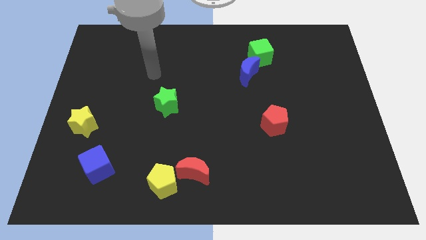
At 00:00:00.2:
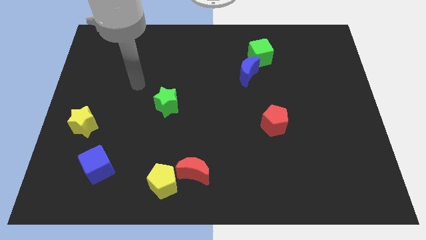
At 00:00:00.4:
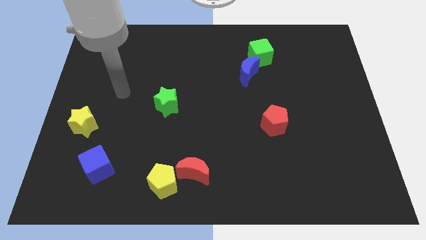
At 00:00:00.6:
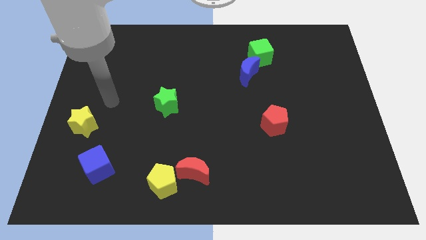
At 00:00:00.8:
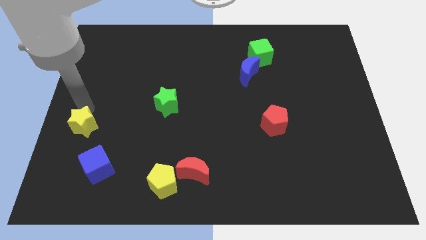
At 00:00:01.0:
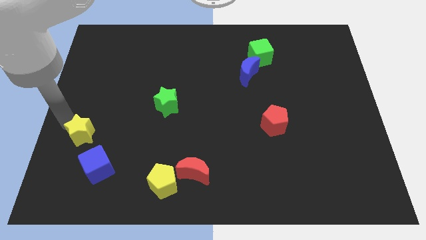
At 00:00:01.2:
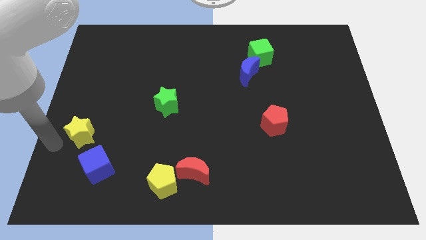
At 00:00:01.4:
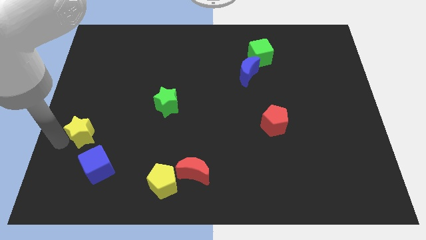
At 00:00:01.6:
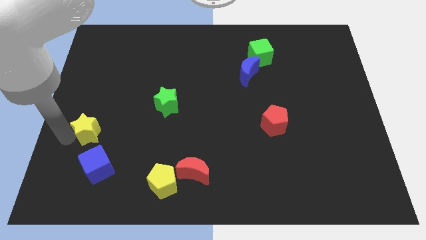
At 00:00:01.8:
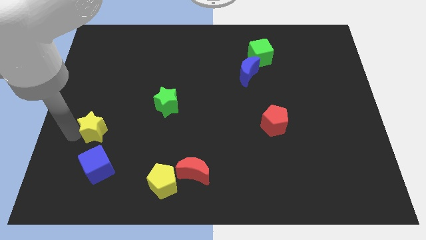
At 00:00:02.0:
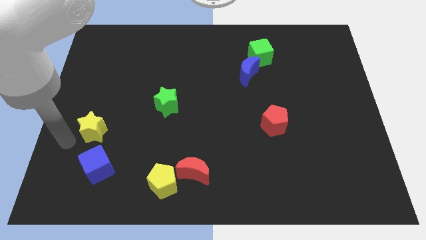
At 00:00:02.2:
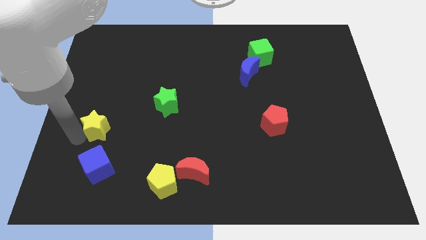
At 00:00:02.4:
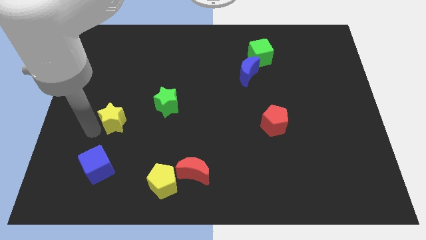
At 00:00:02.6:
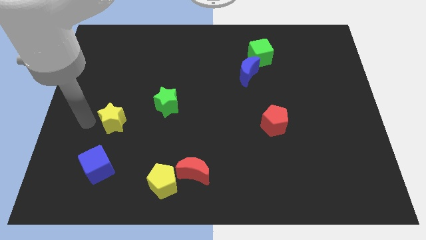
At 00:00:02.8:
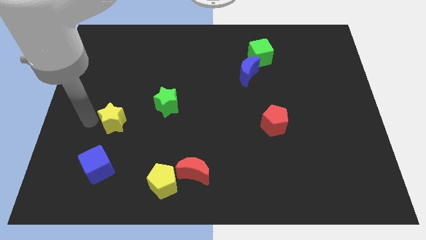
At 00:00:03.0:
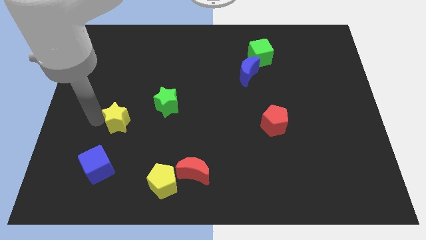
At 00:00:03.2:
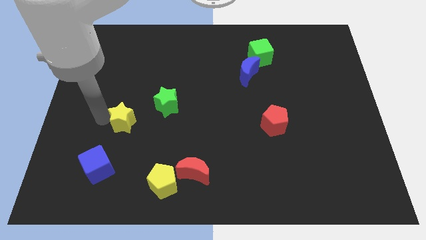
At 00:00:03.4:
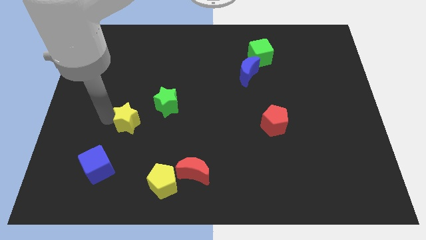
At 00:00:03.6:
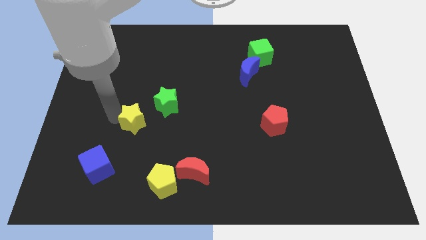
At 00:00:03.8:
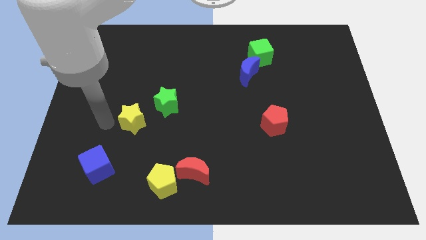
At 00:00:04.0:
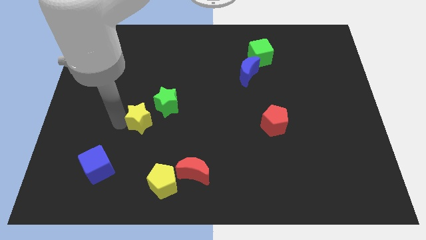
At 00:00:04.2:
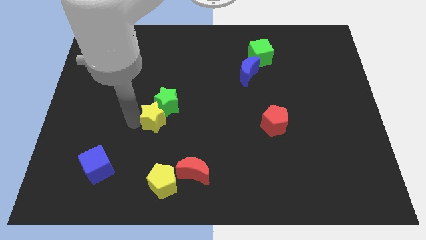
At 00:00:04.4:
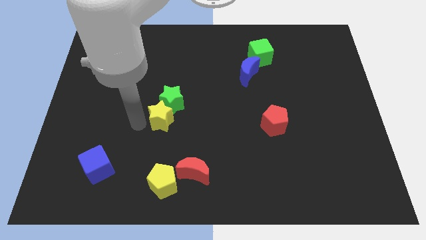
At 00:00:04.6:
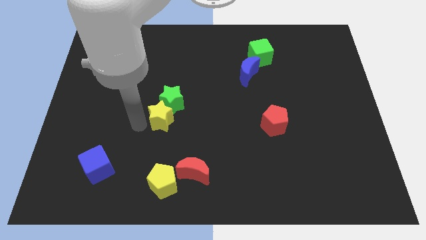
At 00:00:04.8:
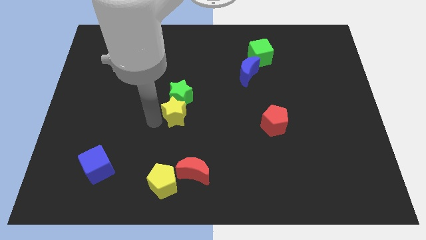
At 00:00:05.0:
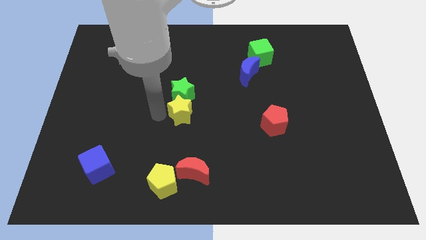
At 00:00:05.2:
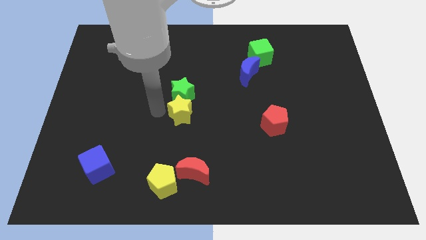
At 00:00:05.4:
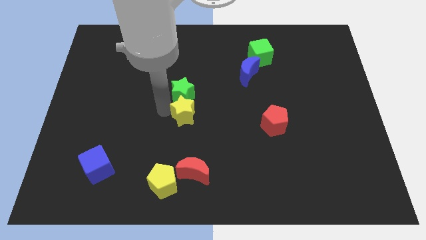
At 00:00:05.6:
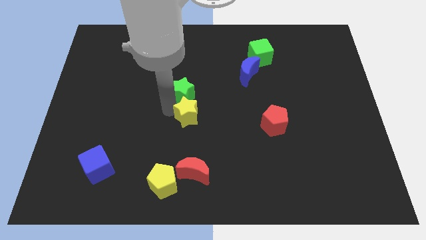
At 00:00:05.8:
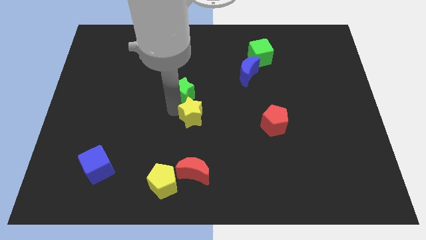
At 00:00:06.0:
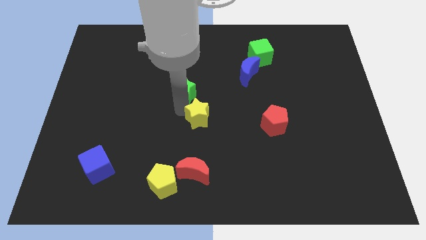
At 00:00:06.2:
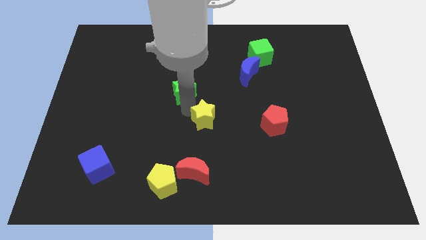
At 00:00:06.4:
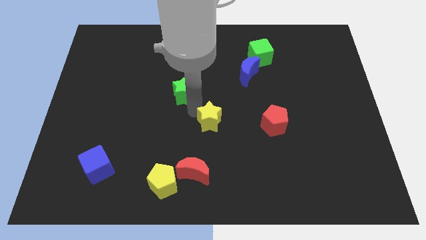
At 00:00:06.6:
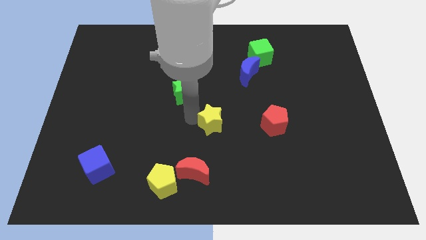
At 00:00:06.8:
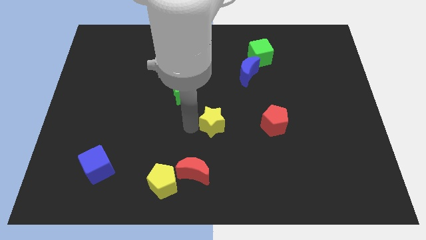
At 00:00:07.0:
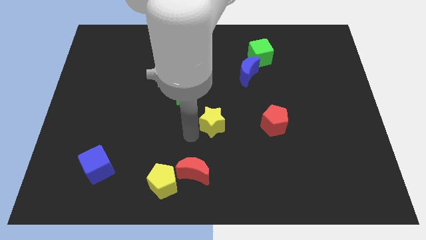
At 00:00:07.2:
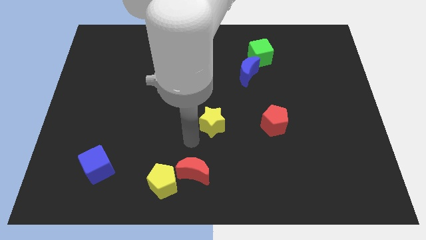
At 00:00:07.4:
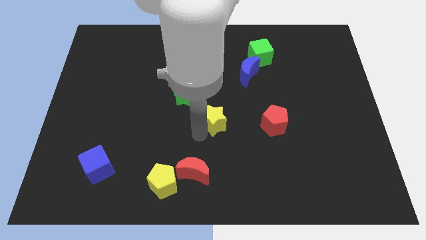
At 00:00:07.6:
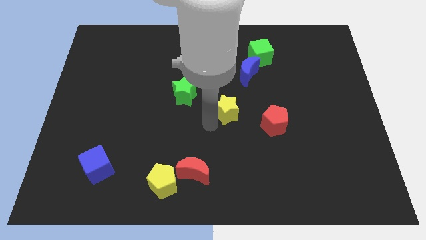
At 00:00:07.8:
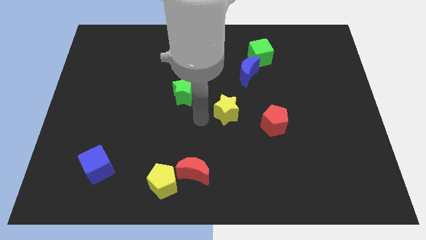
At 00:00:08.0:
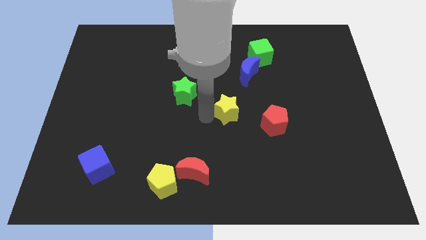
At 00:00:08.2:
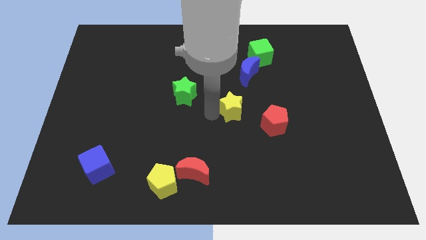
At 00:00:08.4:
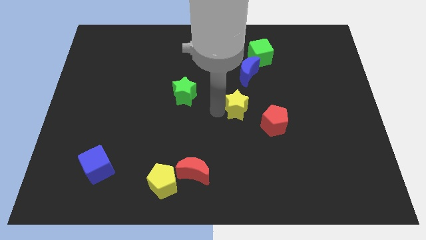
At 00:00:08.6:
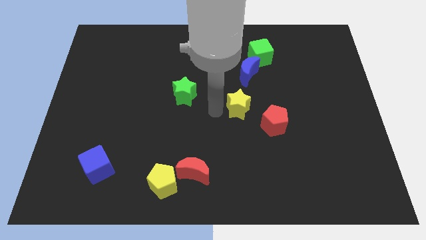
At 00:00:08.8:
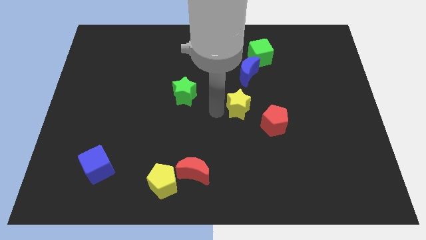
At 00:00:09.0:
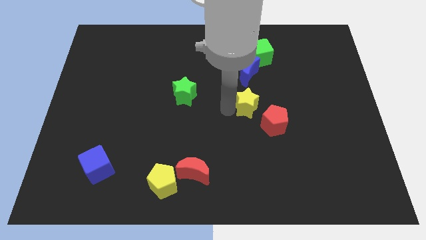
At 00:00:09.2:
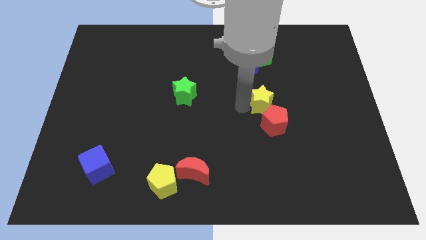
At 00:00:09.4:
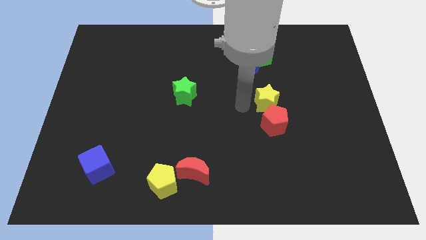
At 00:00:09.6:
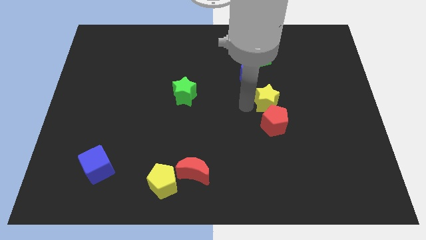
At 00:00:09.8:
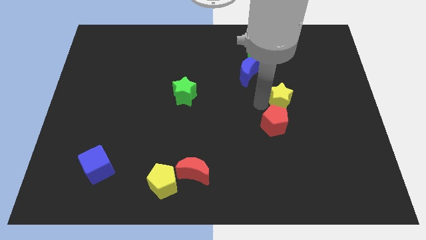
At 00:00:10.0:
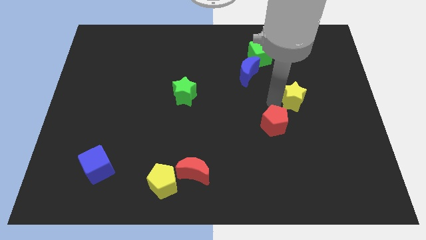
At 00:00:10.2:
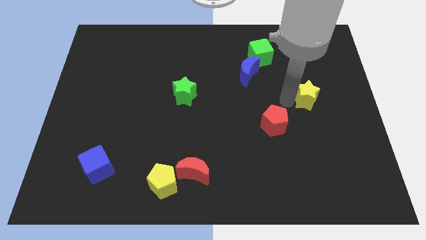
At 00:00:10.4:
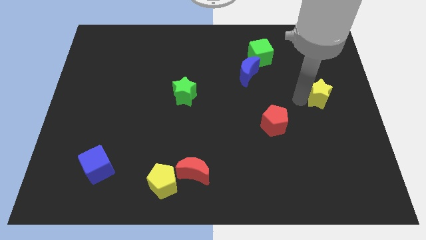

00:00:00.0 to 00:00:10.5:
put the yellow star to the center right

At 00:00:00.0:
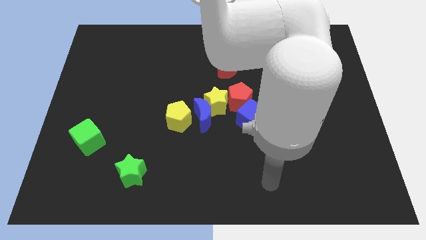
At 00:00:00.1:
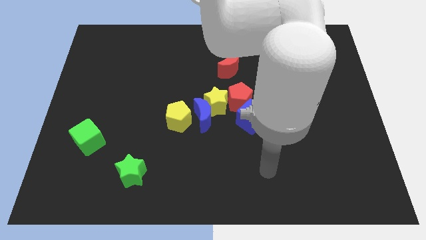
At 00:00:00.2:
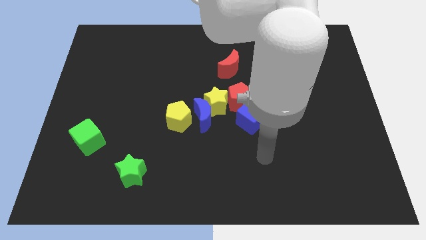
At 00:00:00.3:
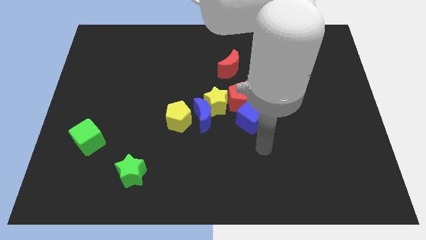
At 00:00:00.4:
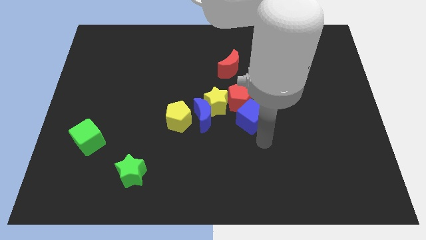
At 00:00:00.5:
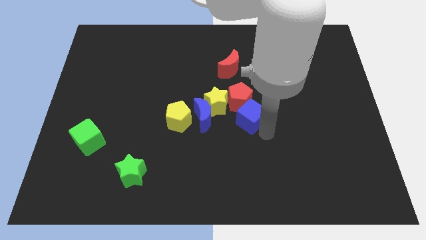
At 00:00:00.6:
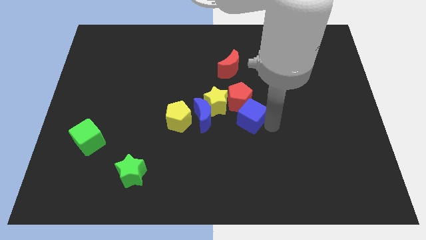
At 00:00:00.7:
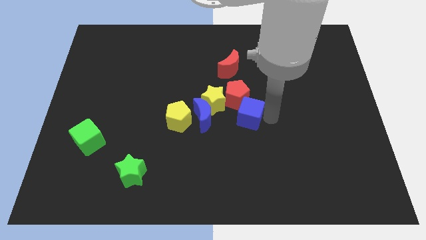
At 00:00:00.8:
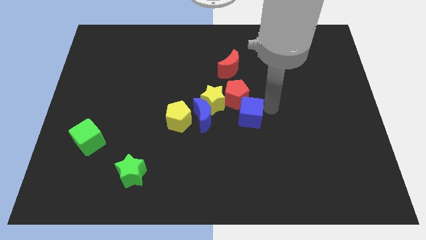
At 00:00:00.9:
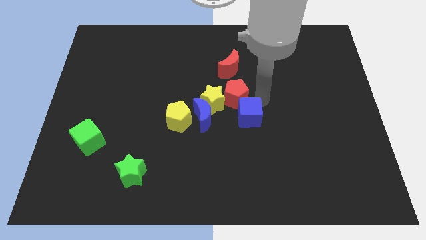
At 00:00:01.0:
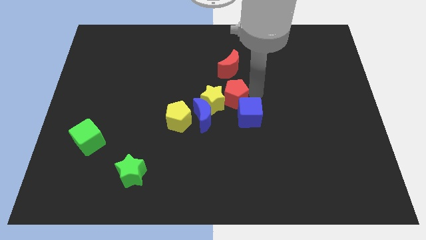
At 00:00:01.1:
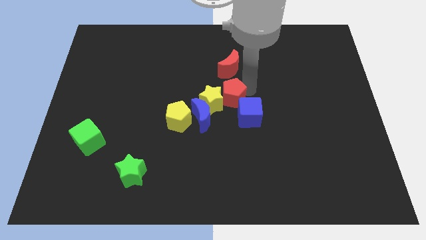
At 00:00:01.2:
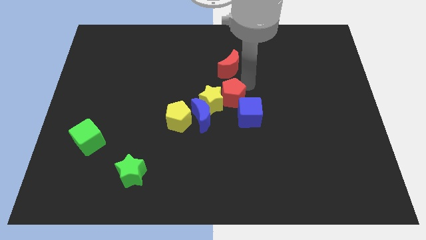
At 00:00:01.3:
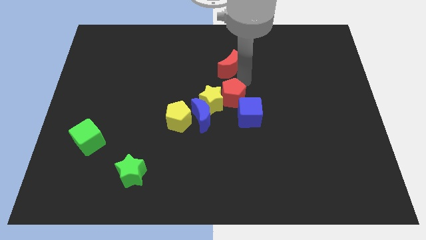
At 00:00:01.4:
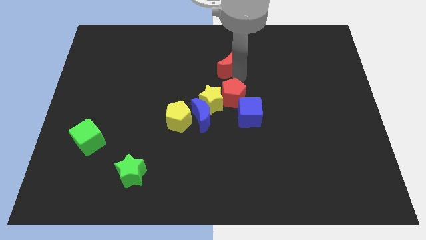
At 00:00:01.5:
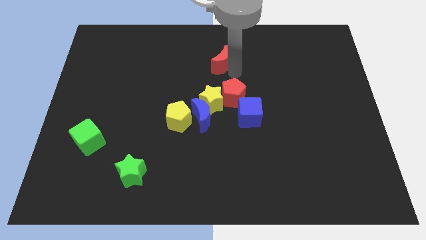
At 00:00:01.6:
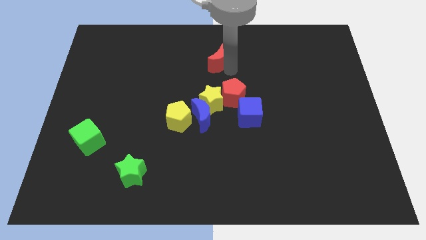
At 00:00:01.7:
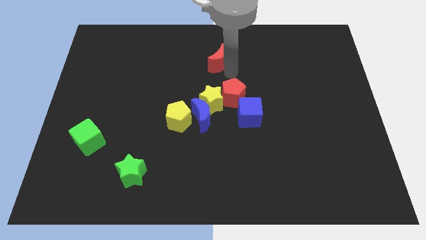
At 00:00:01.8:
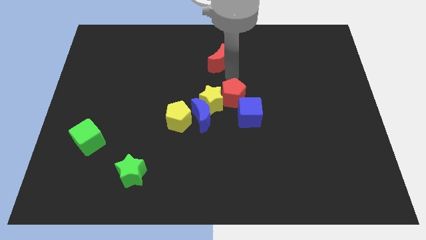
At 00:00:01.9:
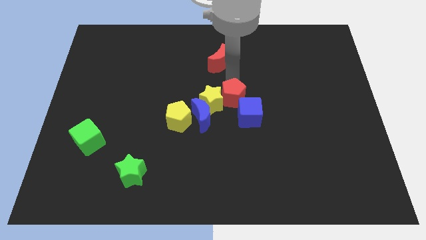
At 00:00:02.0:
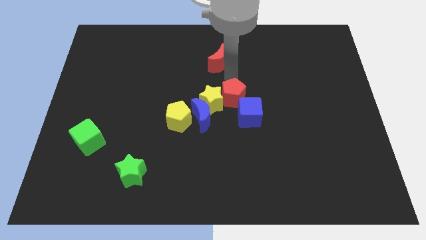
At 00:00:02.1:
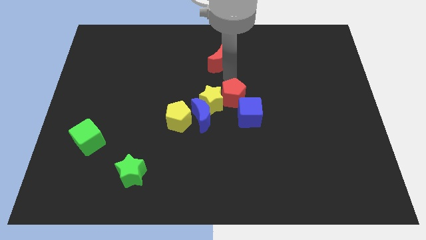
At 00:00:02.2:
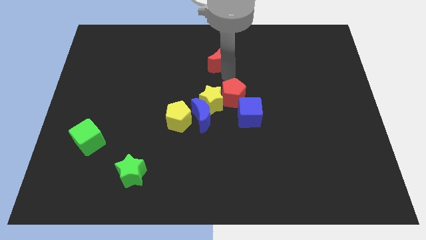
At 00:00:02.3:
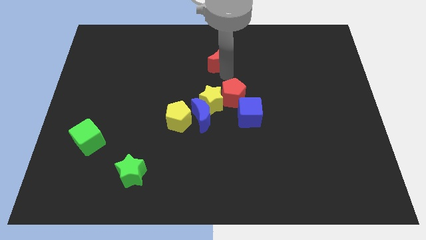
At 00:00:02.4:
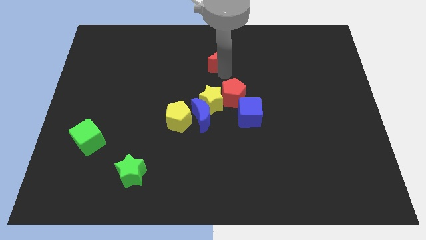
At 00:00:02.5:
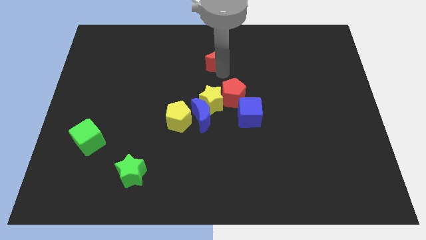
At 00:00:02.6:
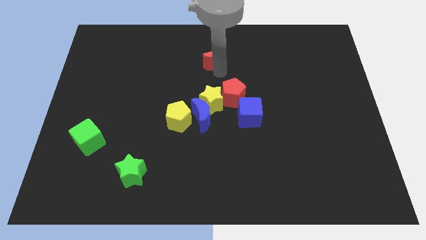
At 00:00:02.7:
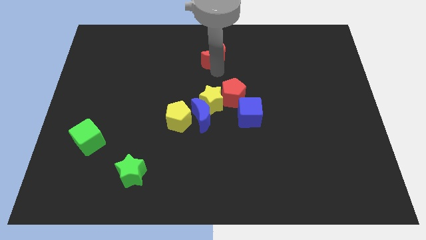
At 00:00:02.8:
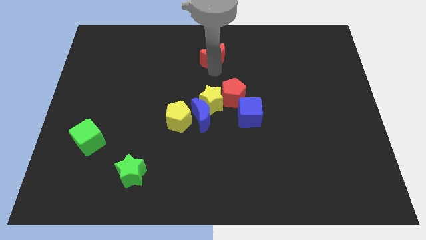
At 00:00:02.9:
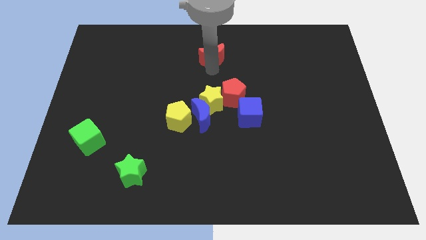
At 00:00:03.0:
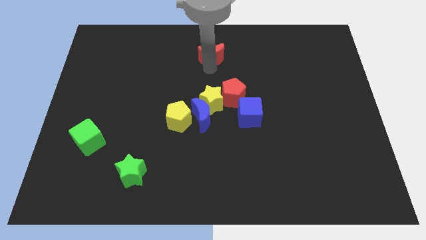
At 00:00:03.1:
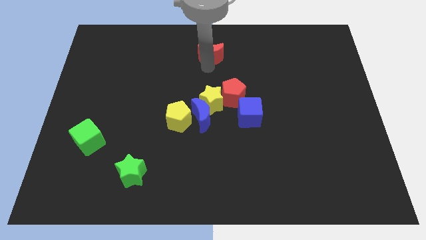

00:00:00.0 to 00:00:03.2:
move the red moon to the top side
